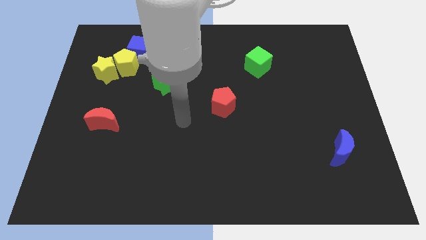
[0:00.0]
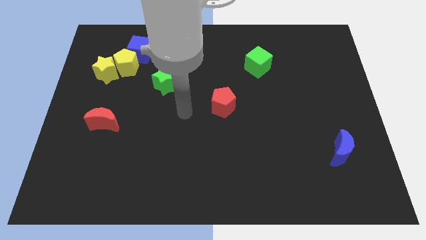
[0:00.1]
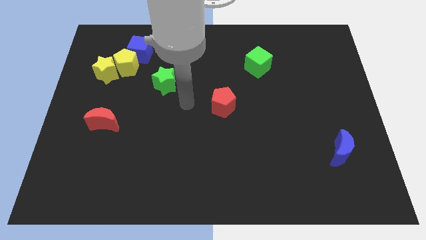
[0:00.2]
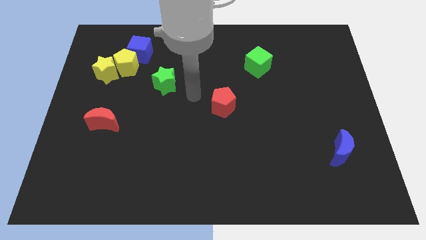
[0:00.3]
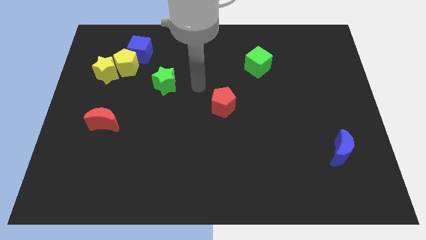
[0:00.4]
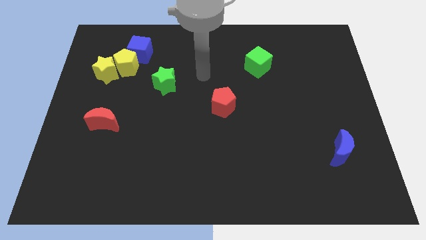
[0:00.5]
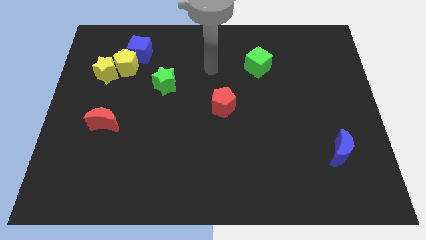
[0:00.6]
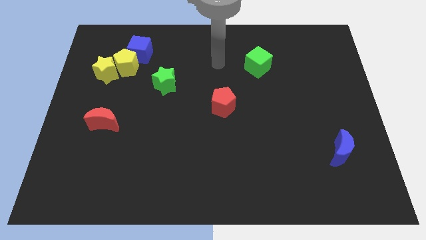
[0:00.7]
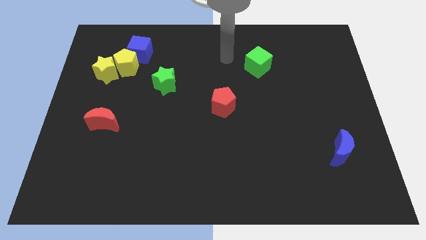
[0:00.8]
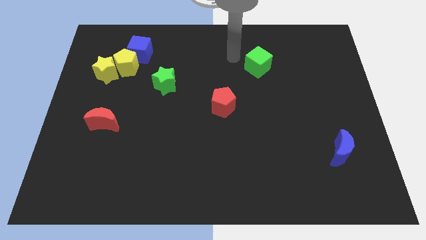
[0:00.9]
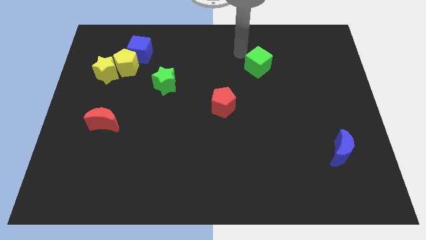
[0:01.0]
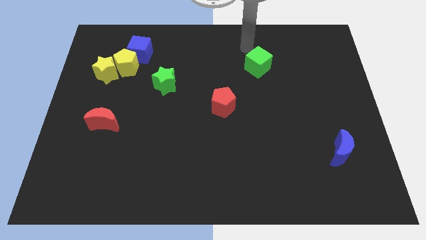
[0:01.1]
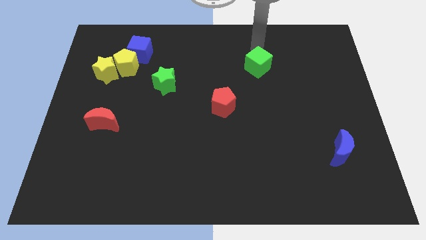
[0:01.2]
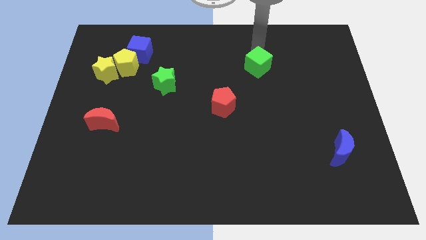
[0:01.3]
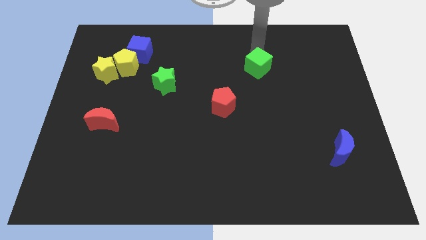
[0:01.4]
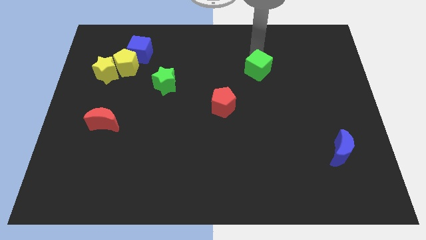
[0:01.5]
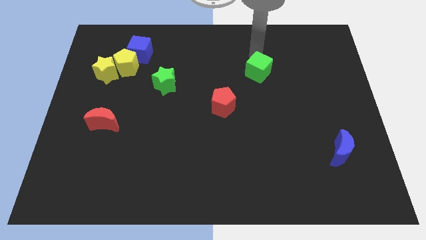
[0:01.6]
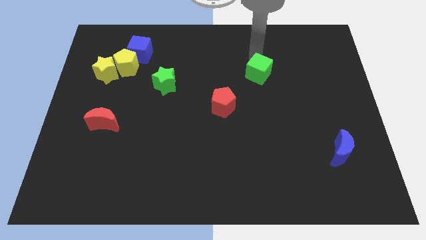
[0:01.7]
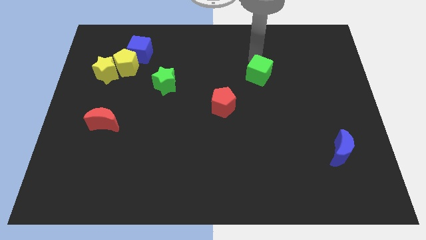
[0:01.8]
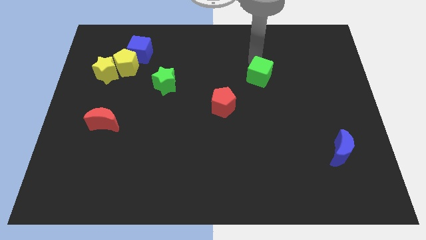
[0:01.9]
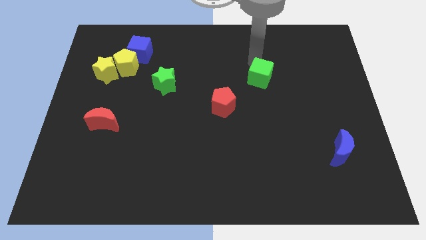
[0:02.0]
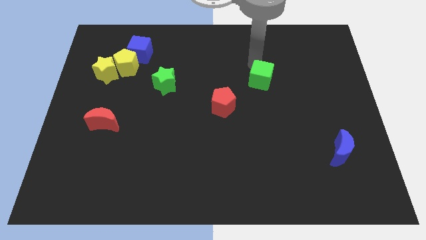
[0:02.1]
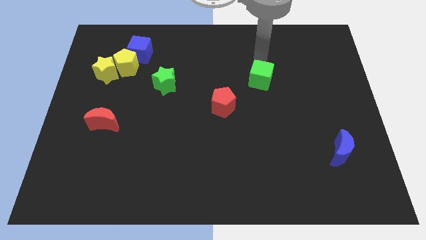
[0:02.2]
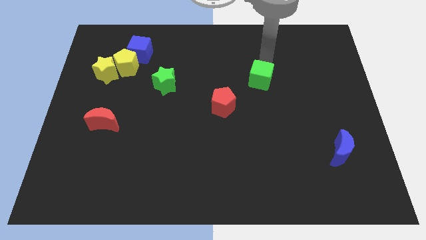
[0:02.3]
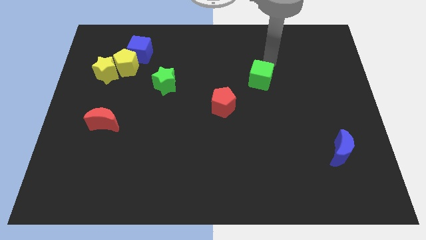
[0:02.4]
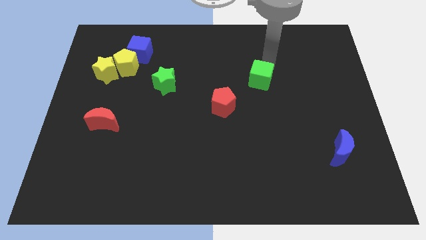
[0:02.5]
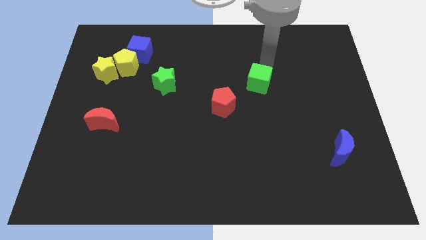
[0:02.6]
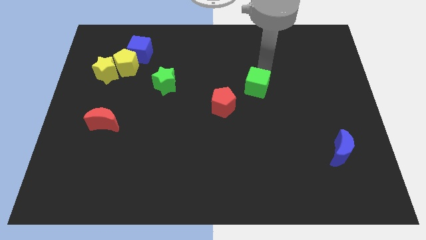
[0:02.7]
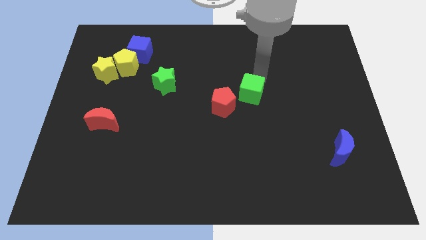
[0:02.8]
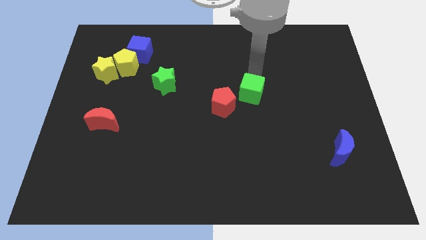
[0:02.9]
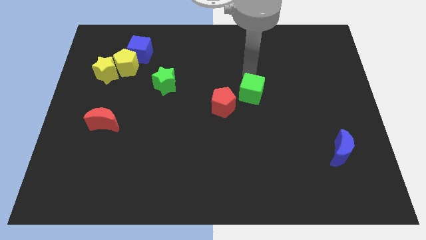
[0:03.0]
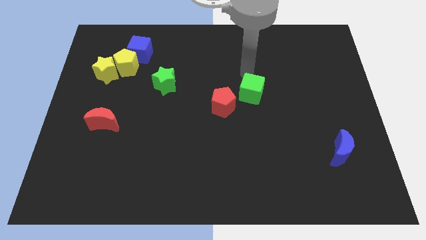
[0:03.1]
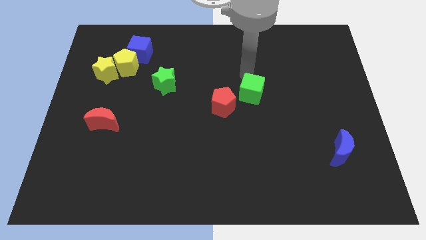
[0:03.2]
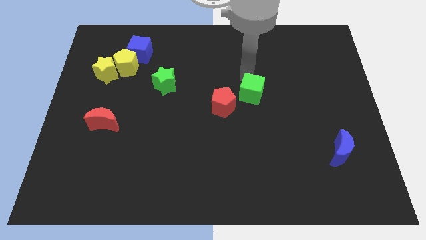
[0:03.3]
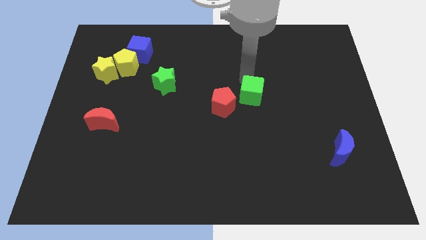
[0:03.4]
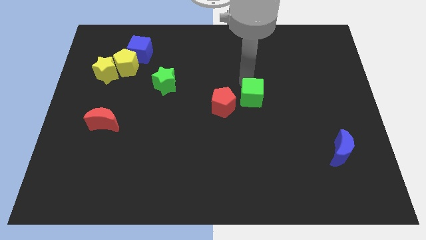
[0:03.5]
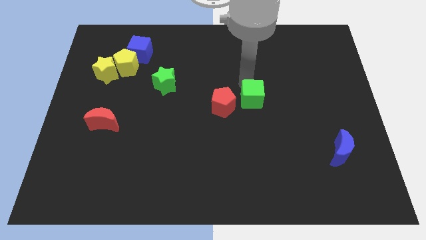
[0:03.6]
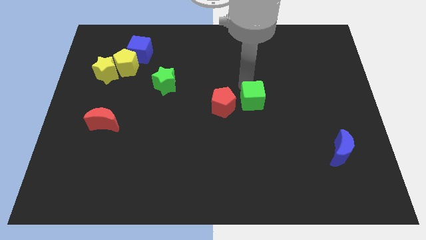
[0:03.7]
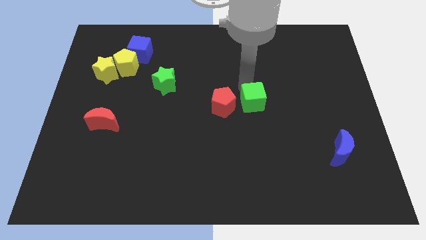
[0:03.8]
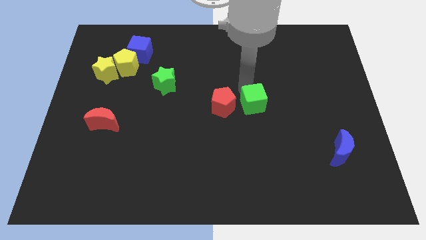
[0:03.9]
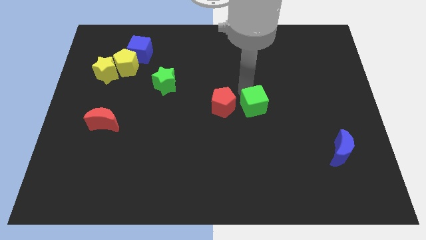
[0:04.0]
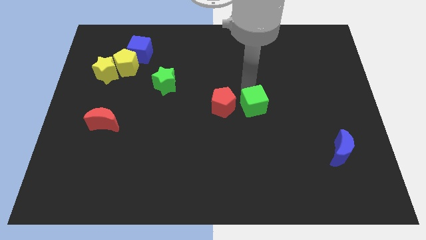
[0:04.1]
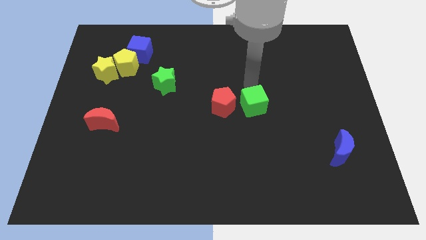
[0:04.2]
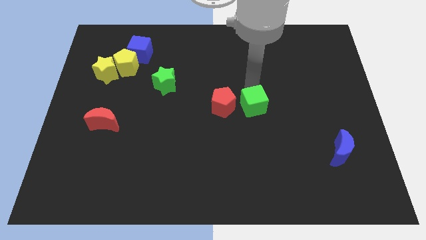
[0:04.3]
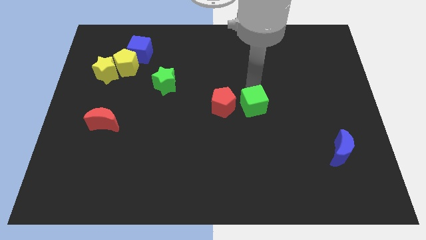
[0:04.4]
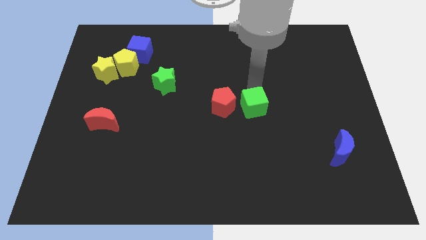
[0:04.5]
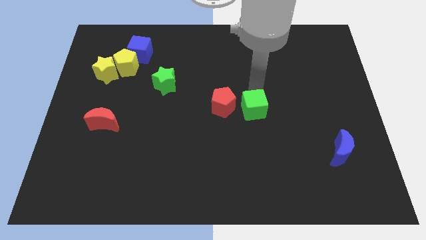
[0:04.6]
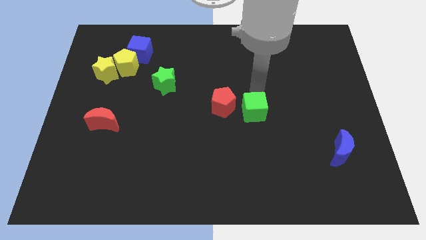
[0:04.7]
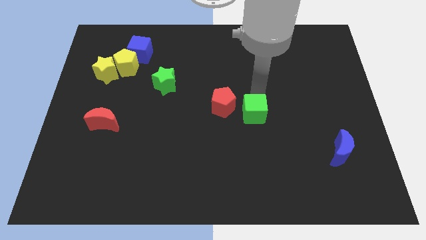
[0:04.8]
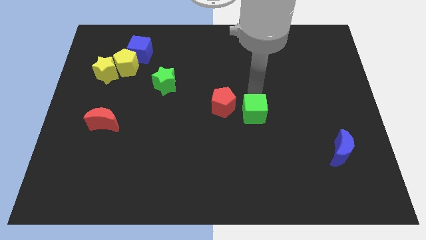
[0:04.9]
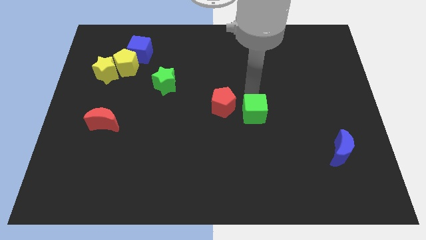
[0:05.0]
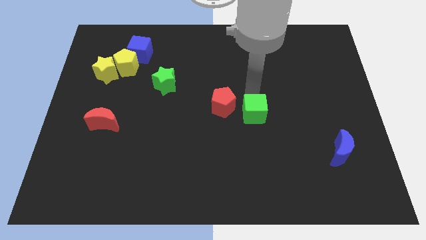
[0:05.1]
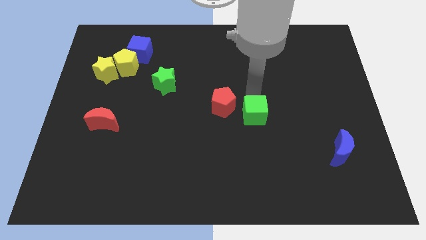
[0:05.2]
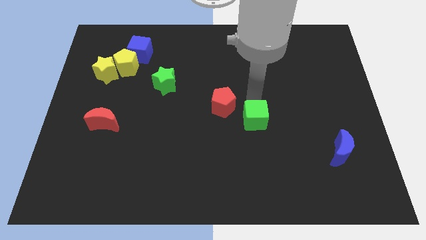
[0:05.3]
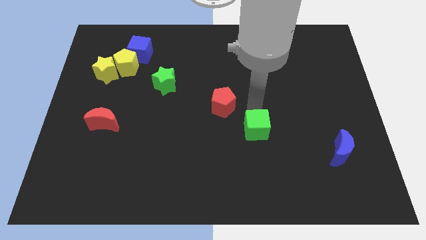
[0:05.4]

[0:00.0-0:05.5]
slide the green cube down

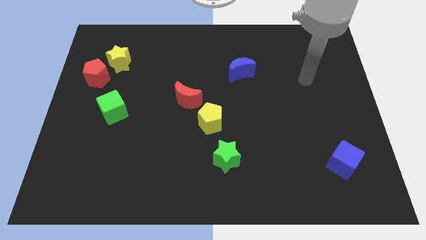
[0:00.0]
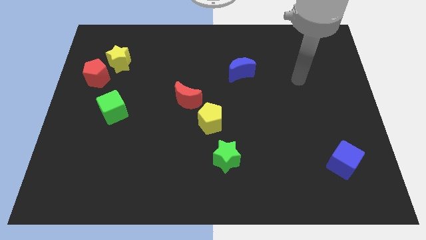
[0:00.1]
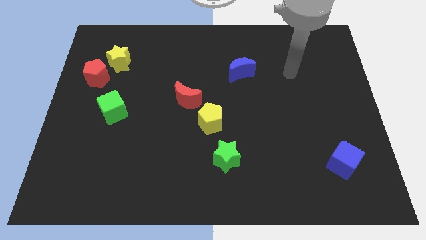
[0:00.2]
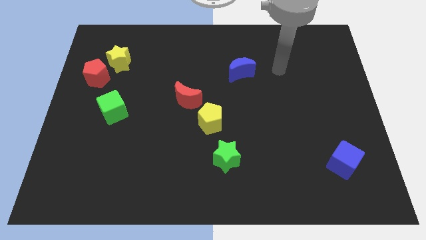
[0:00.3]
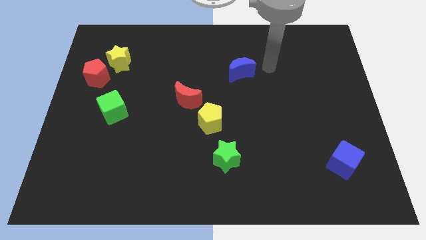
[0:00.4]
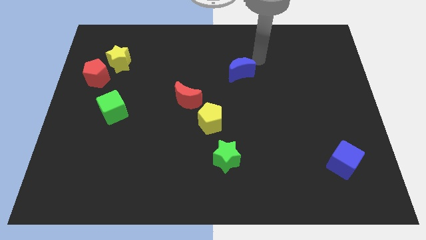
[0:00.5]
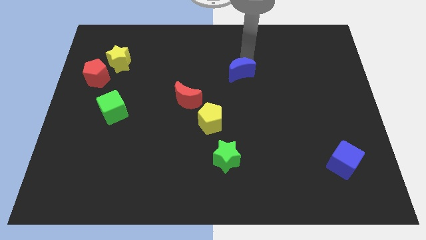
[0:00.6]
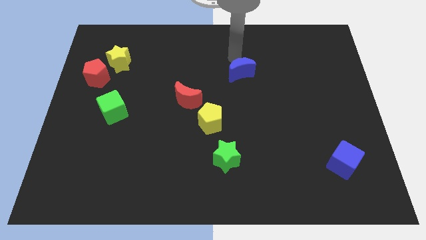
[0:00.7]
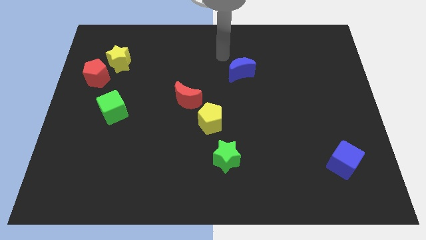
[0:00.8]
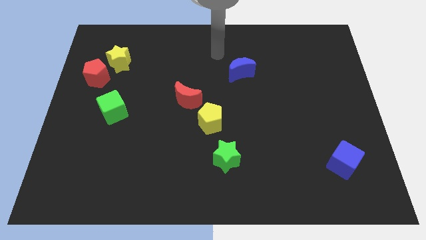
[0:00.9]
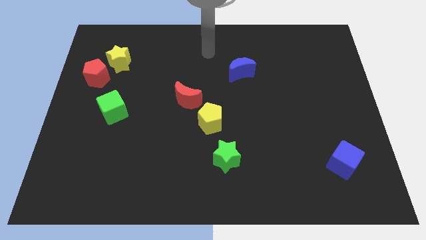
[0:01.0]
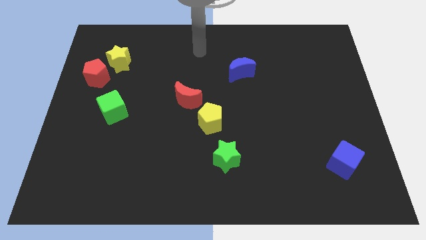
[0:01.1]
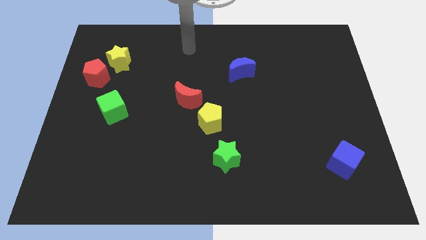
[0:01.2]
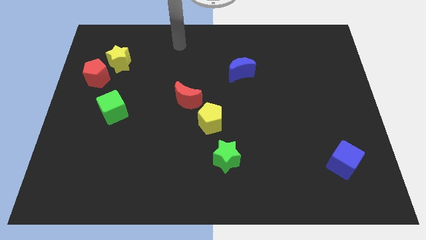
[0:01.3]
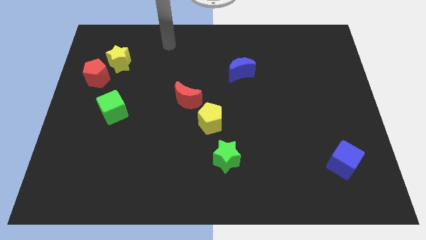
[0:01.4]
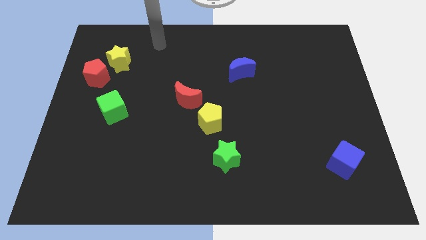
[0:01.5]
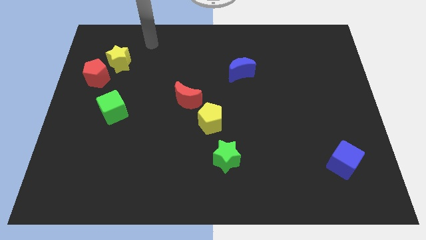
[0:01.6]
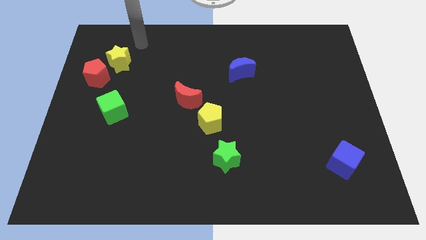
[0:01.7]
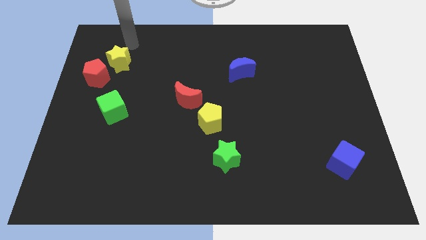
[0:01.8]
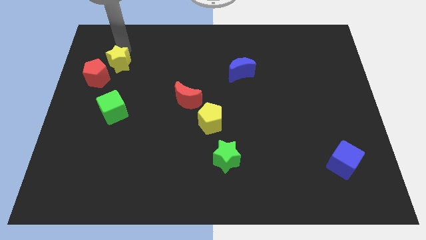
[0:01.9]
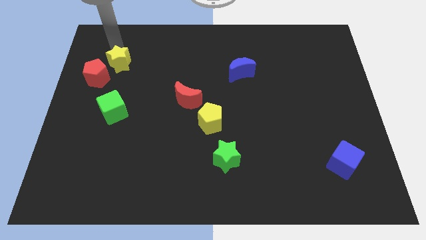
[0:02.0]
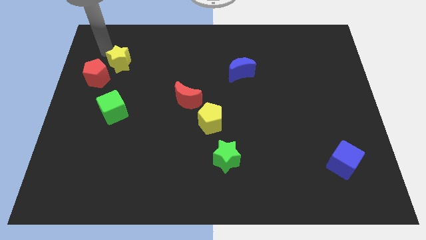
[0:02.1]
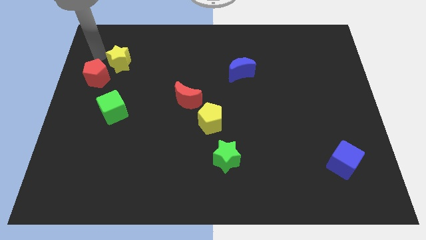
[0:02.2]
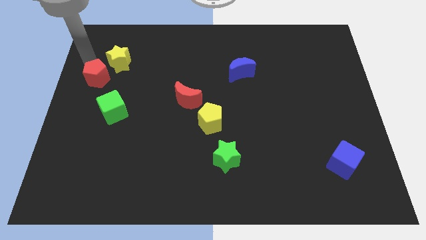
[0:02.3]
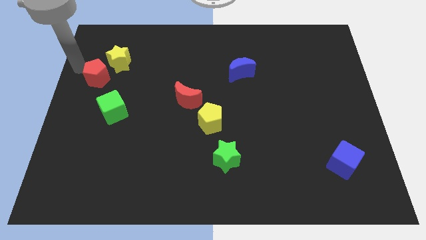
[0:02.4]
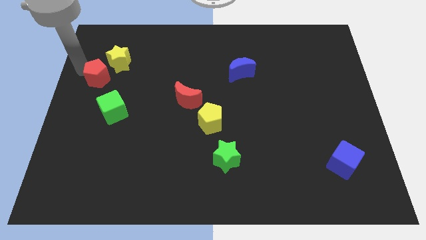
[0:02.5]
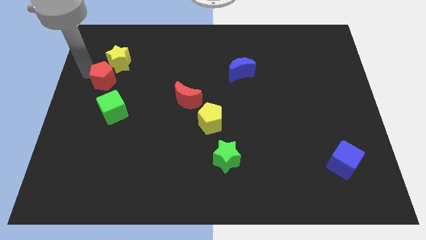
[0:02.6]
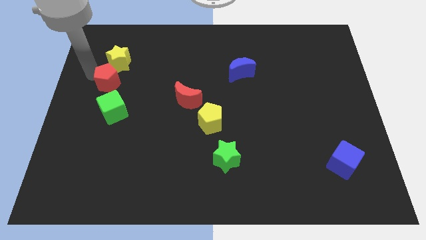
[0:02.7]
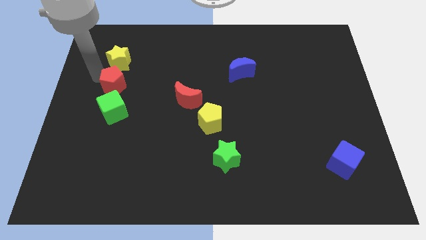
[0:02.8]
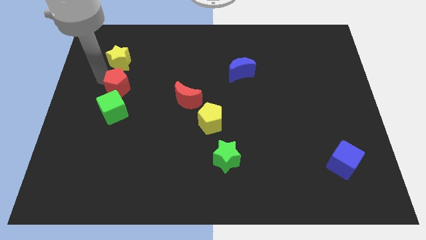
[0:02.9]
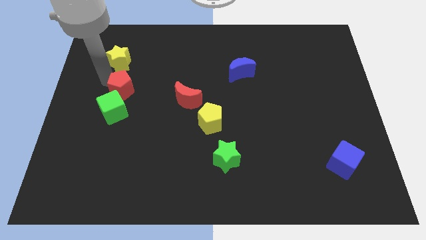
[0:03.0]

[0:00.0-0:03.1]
slightly push the red pentagon downwards and to the right diagonally
